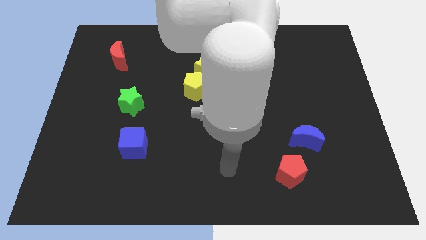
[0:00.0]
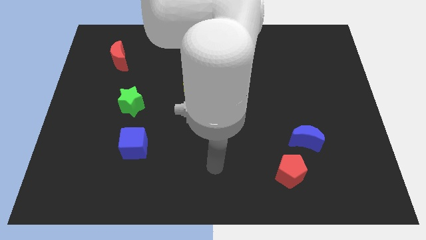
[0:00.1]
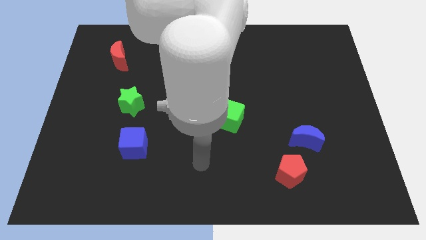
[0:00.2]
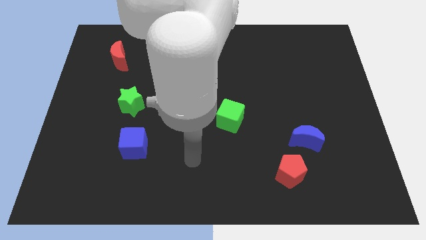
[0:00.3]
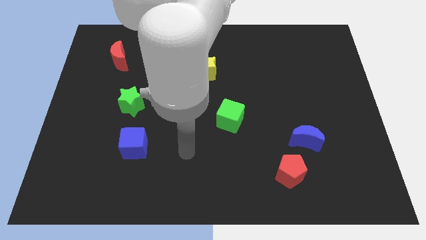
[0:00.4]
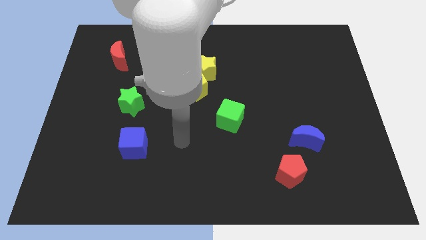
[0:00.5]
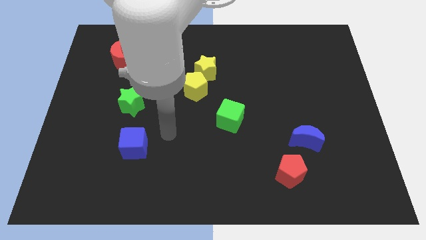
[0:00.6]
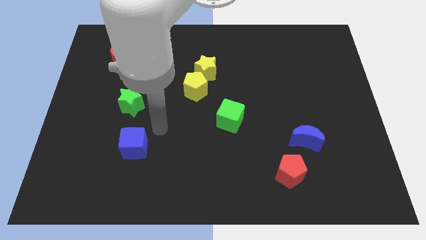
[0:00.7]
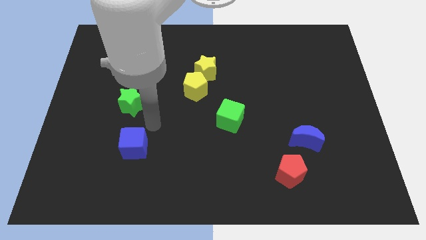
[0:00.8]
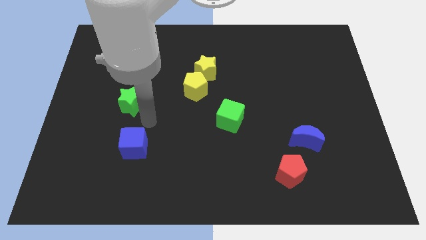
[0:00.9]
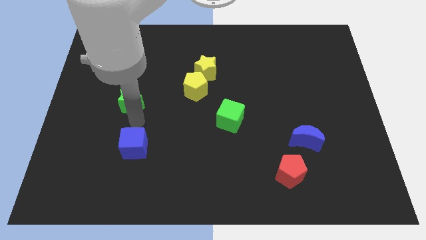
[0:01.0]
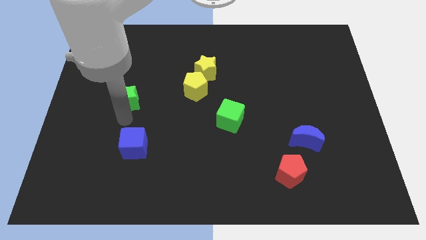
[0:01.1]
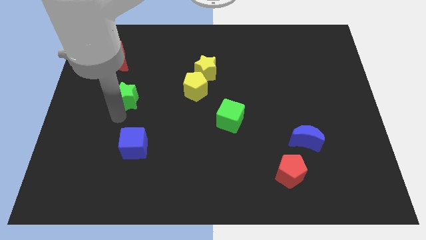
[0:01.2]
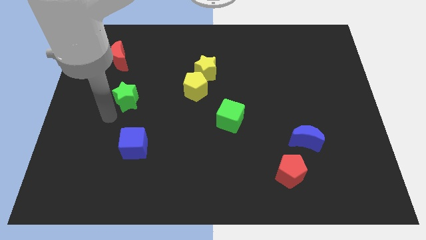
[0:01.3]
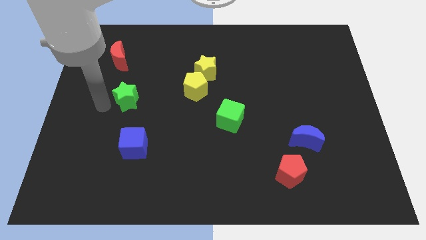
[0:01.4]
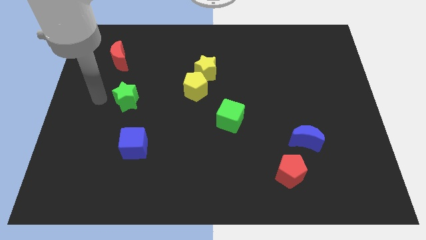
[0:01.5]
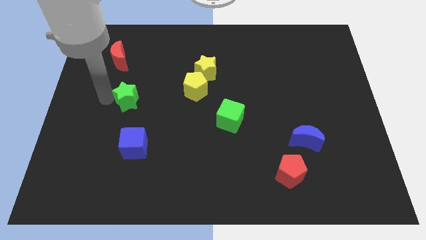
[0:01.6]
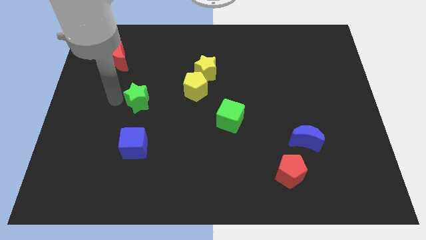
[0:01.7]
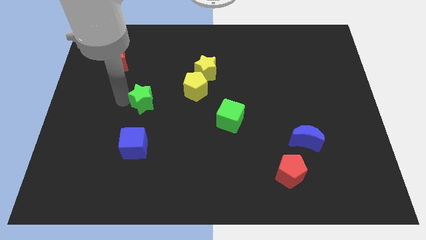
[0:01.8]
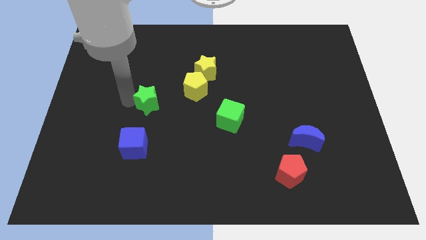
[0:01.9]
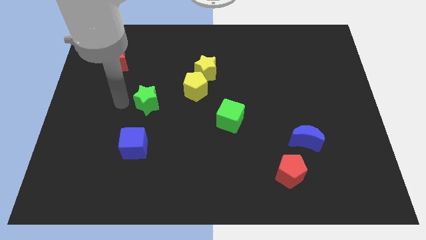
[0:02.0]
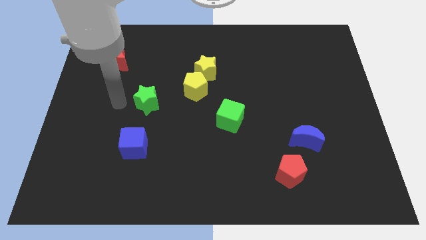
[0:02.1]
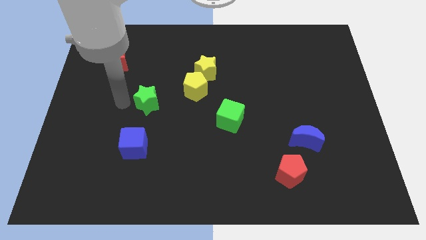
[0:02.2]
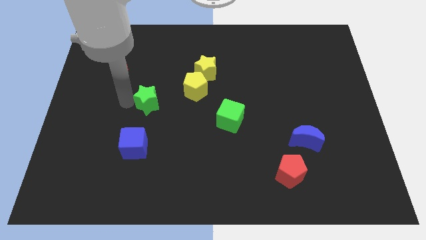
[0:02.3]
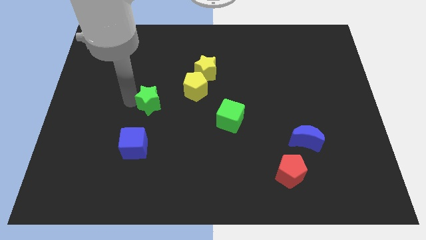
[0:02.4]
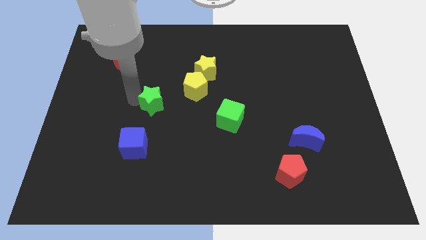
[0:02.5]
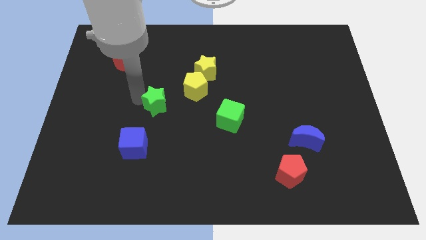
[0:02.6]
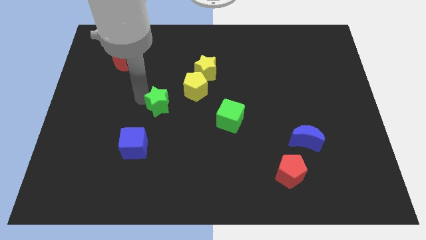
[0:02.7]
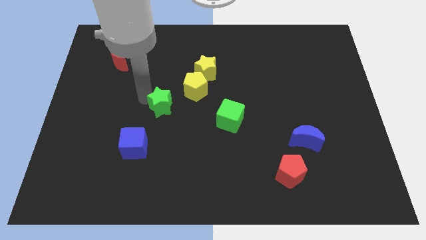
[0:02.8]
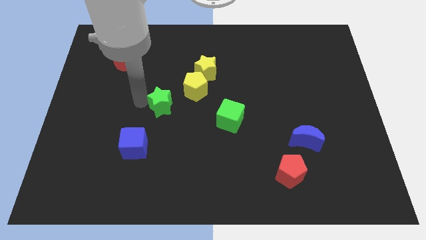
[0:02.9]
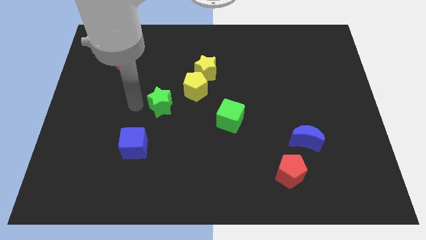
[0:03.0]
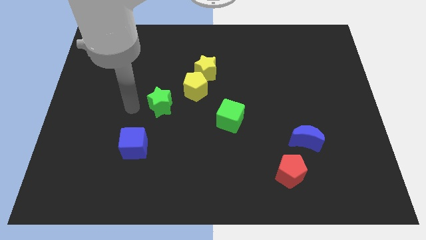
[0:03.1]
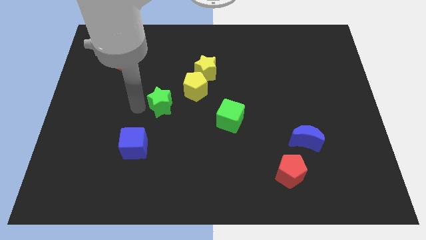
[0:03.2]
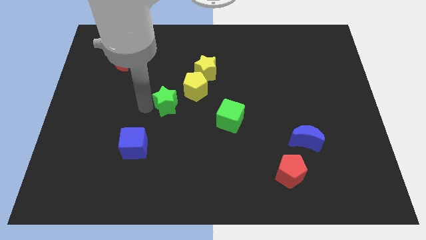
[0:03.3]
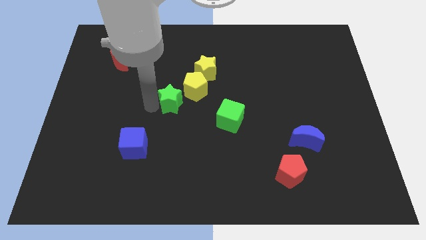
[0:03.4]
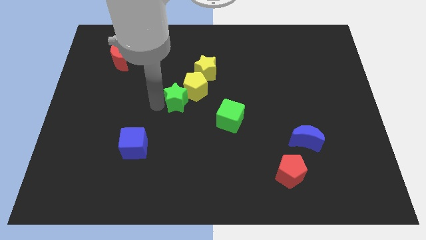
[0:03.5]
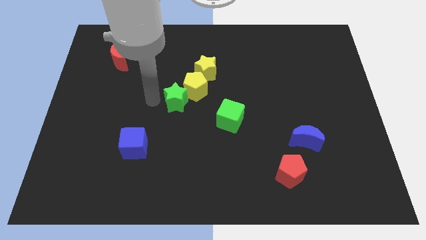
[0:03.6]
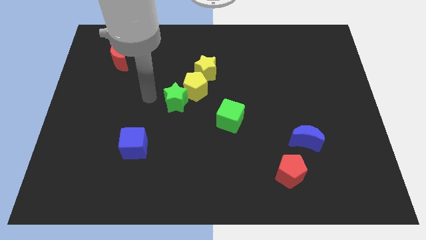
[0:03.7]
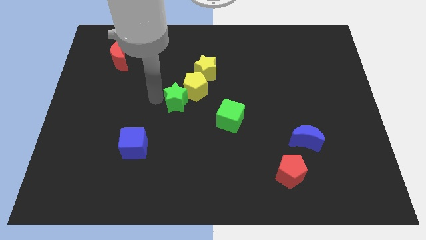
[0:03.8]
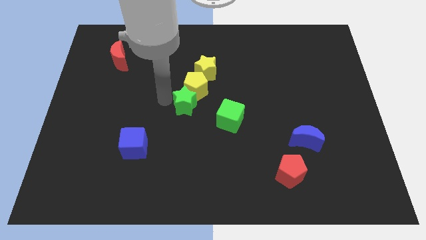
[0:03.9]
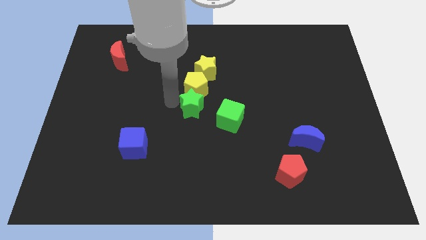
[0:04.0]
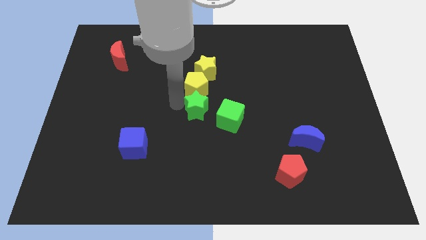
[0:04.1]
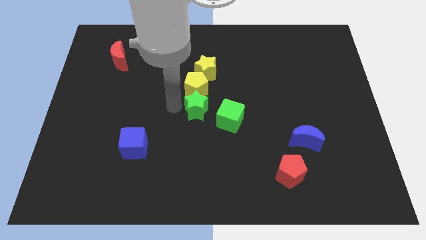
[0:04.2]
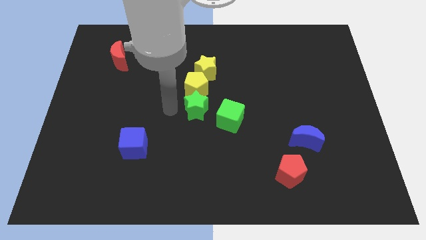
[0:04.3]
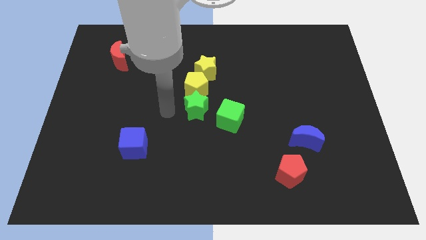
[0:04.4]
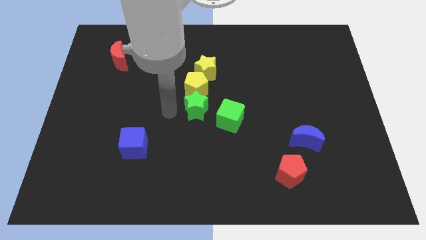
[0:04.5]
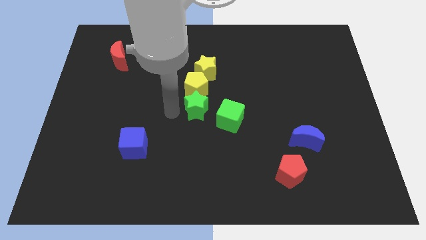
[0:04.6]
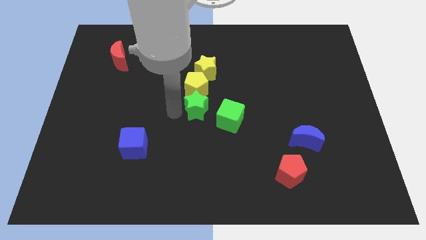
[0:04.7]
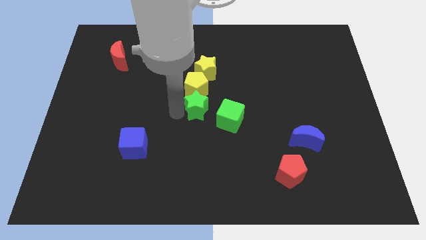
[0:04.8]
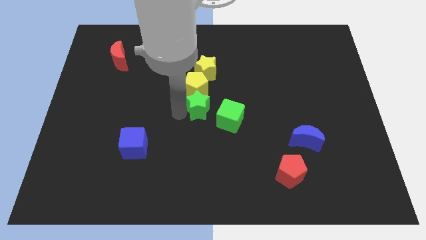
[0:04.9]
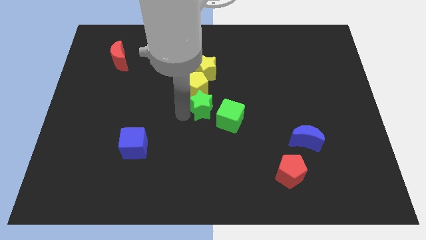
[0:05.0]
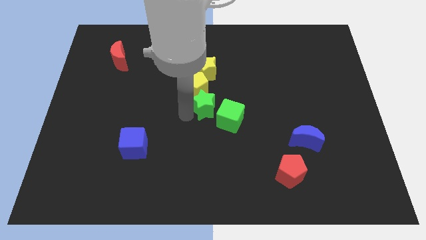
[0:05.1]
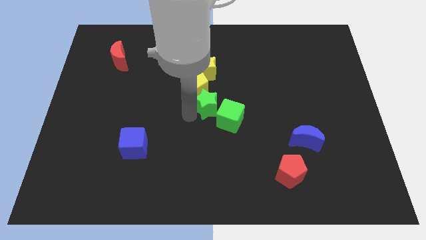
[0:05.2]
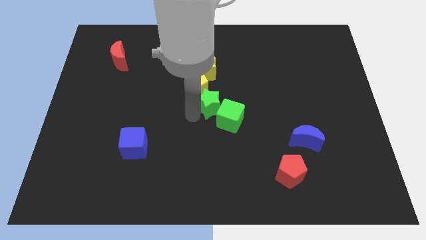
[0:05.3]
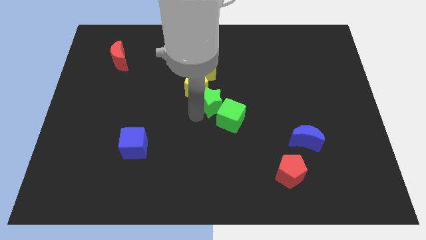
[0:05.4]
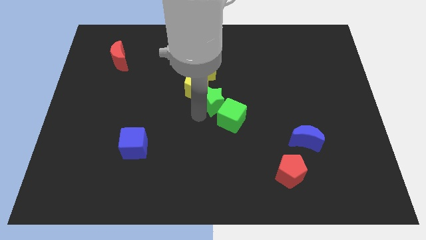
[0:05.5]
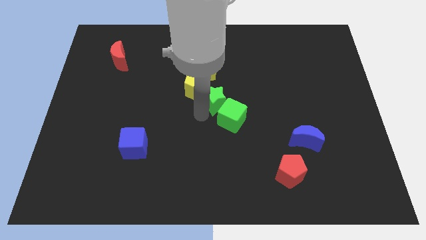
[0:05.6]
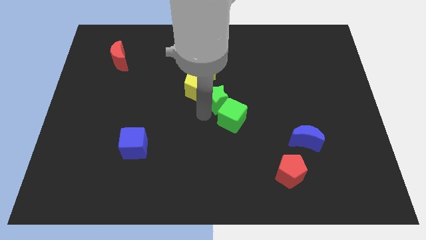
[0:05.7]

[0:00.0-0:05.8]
slide the green star right

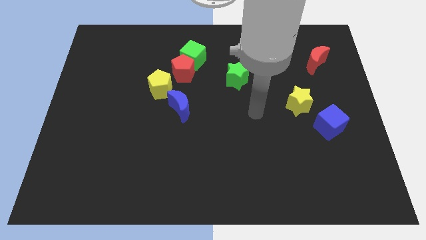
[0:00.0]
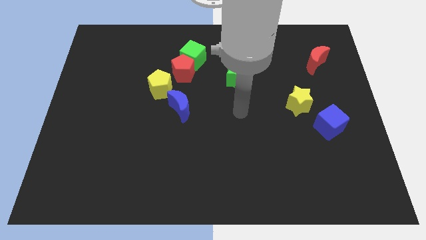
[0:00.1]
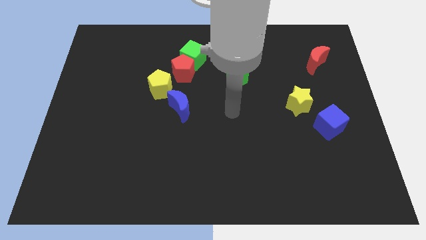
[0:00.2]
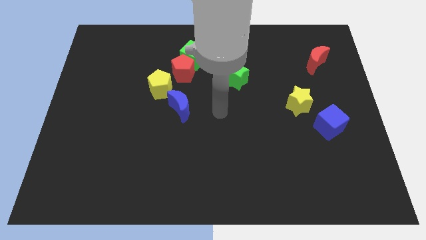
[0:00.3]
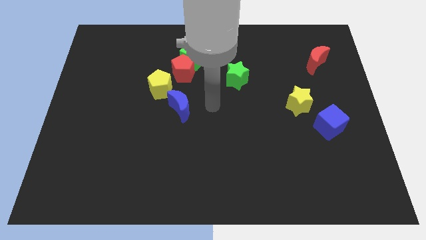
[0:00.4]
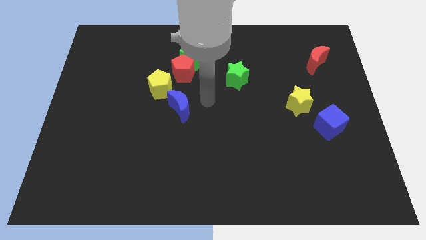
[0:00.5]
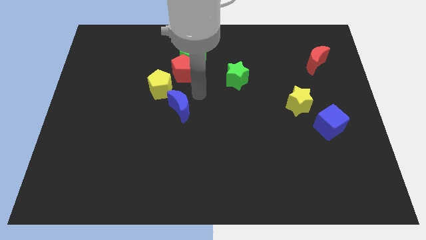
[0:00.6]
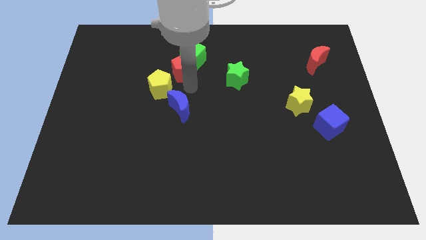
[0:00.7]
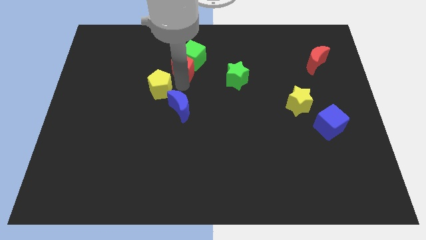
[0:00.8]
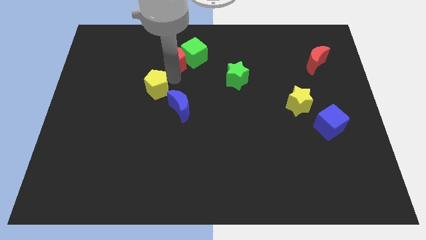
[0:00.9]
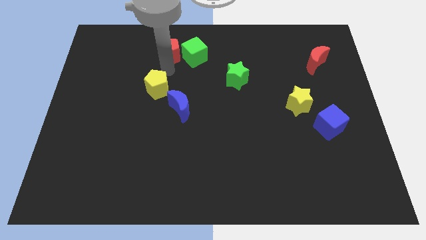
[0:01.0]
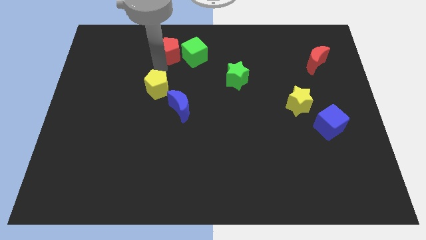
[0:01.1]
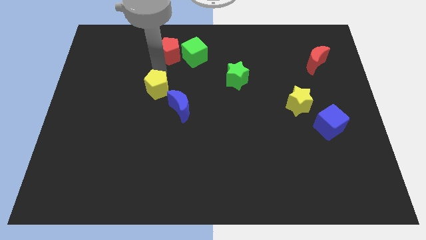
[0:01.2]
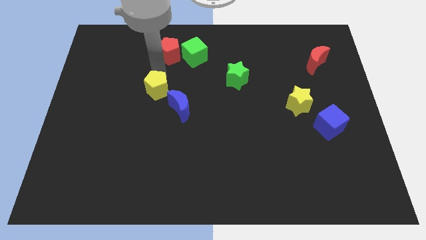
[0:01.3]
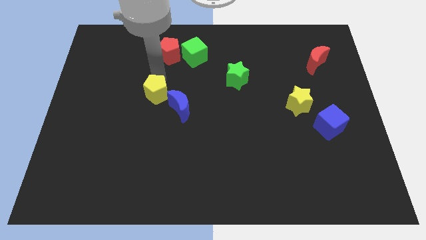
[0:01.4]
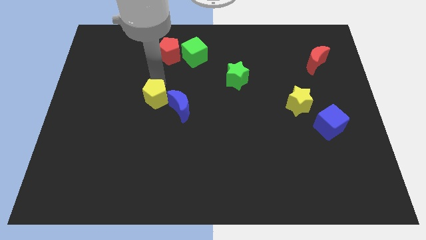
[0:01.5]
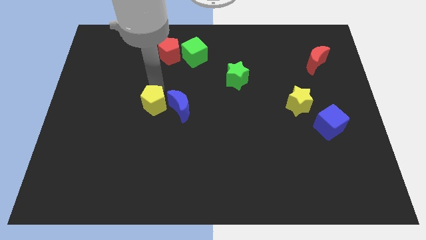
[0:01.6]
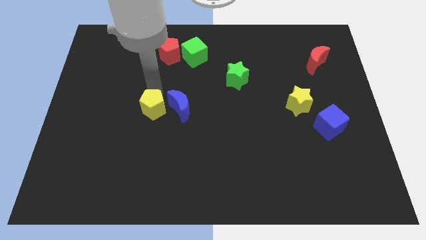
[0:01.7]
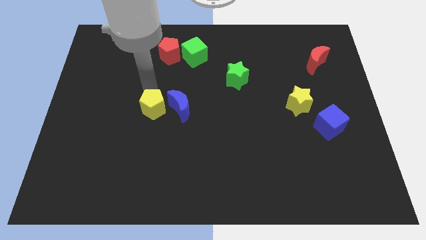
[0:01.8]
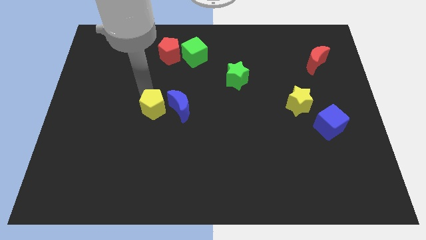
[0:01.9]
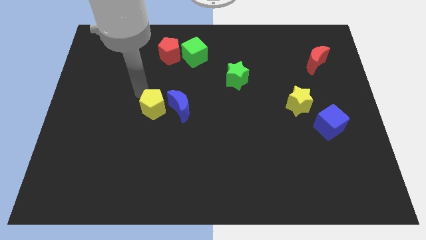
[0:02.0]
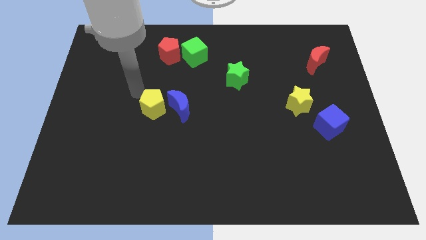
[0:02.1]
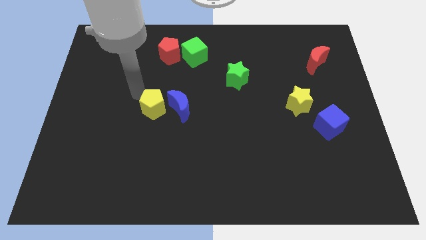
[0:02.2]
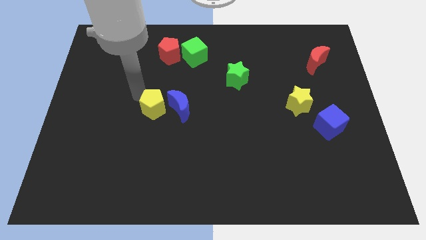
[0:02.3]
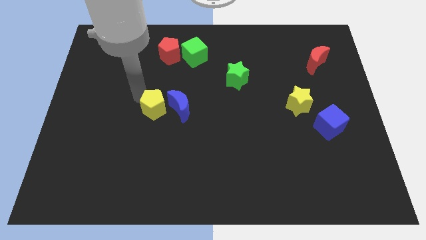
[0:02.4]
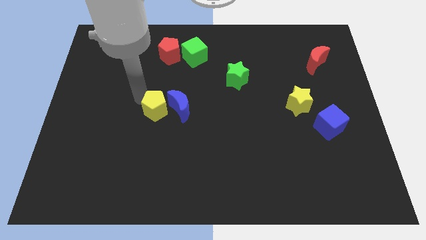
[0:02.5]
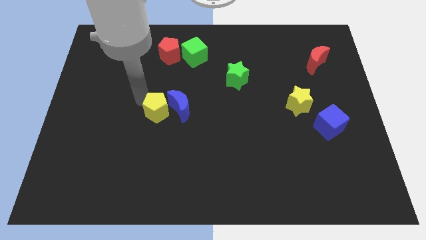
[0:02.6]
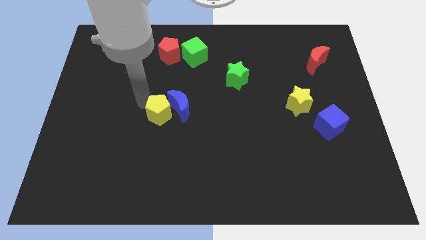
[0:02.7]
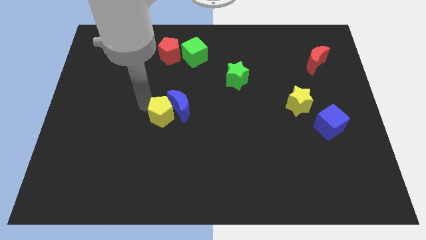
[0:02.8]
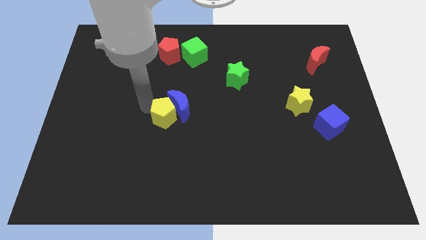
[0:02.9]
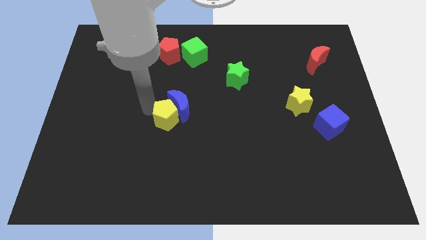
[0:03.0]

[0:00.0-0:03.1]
move the yellow pentagon somewhat downwards and then right
